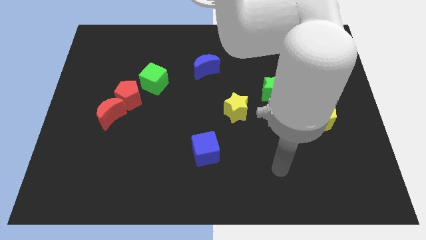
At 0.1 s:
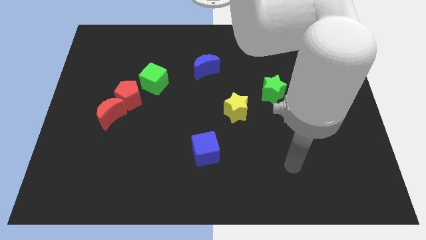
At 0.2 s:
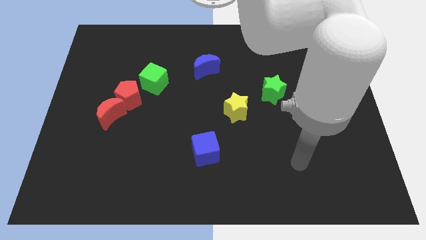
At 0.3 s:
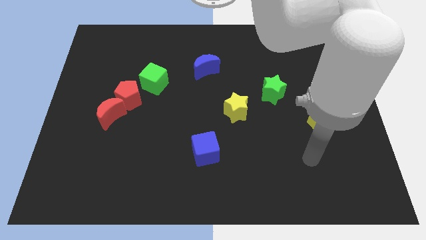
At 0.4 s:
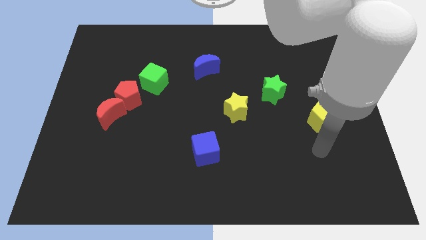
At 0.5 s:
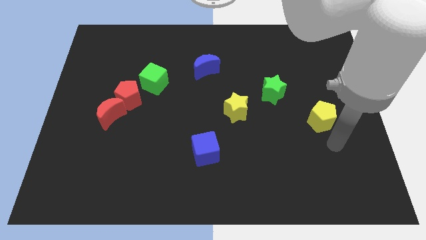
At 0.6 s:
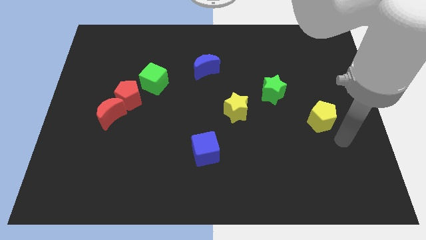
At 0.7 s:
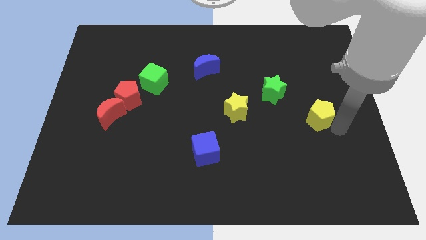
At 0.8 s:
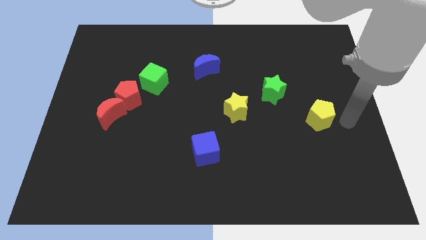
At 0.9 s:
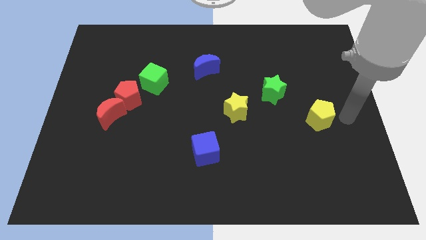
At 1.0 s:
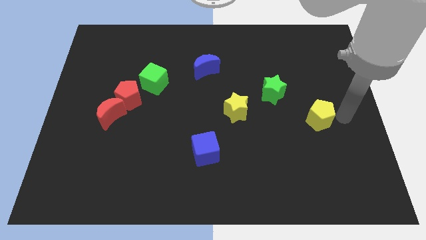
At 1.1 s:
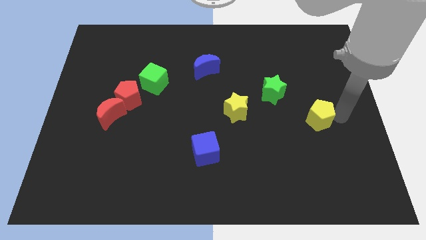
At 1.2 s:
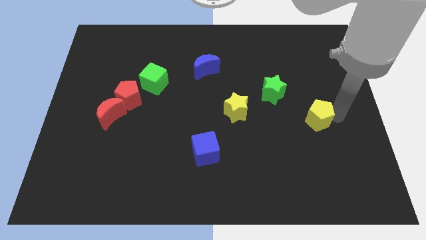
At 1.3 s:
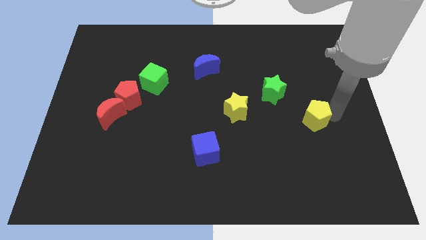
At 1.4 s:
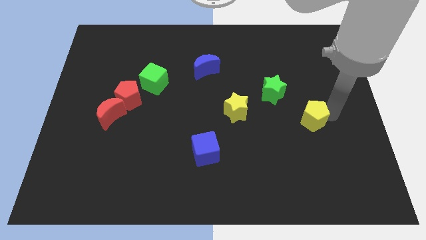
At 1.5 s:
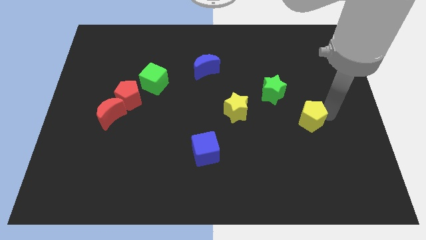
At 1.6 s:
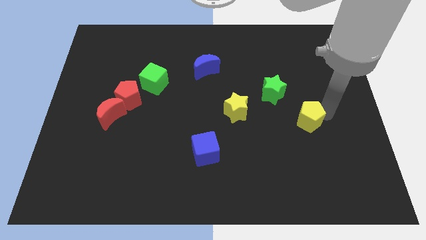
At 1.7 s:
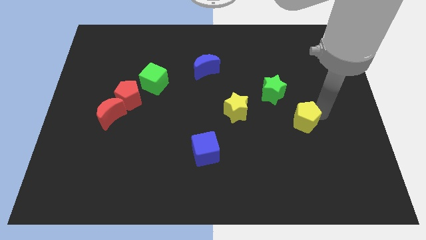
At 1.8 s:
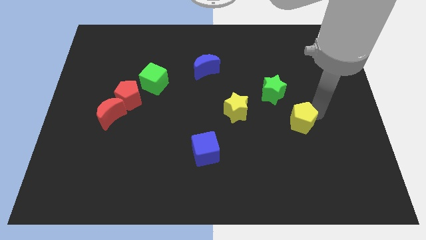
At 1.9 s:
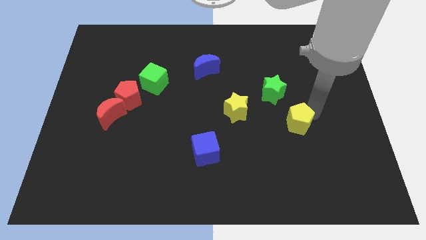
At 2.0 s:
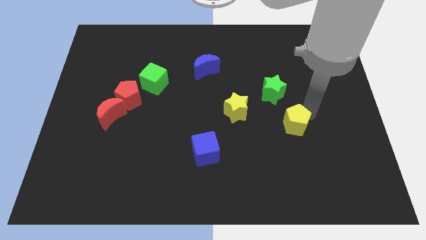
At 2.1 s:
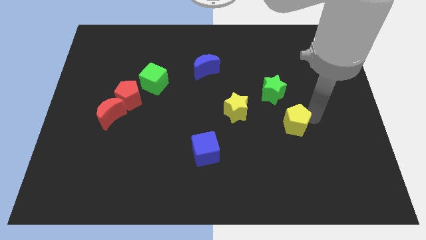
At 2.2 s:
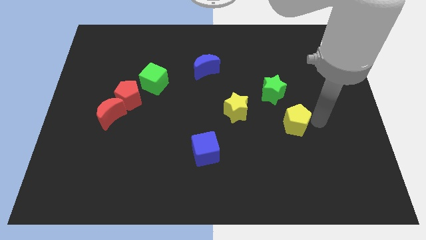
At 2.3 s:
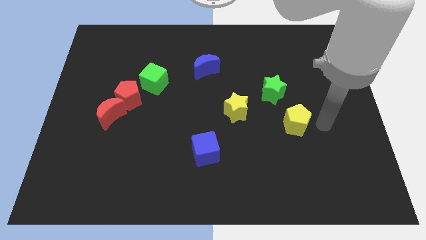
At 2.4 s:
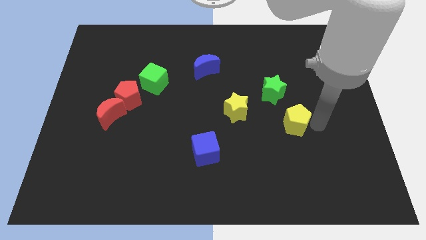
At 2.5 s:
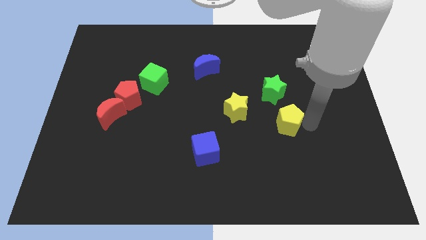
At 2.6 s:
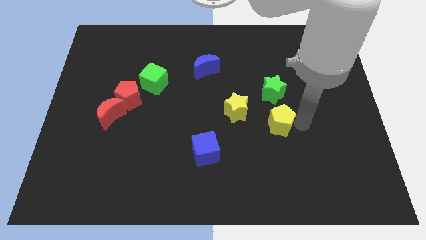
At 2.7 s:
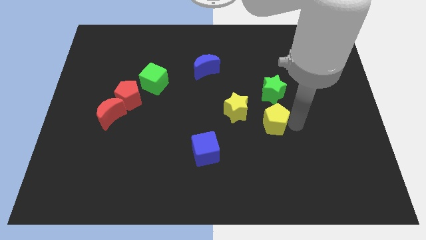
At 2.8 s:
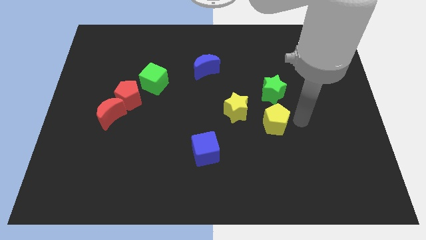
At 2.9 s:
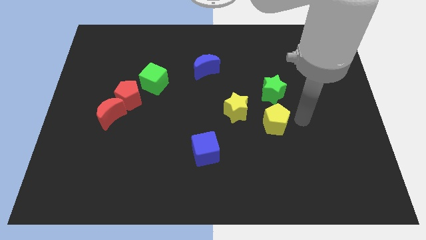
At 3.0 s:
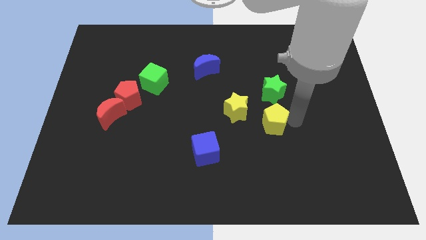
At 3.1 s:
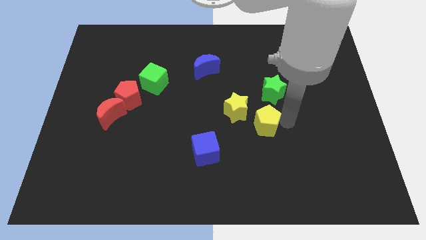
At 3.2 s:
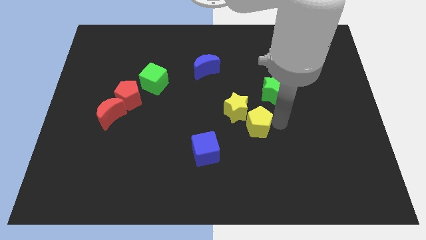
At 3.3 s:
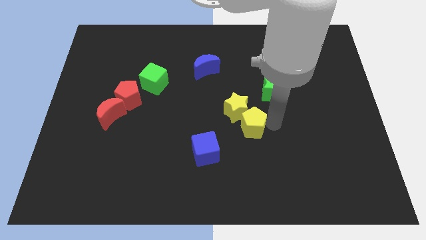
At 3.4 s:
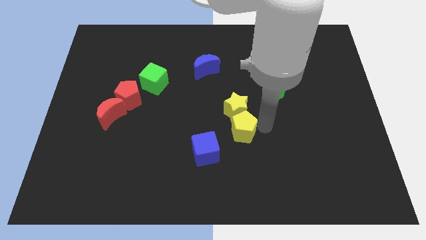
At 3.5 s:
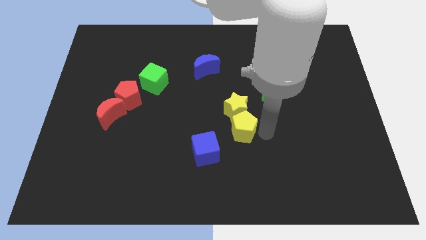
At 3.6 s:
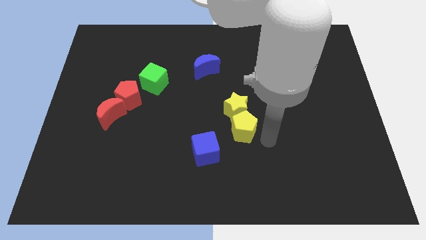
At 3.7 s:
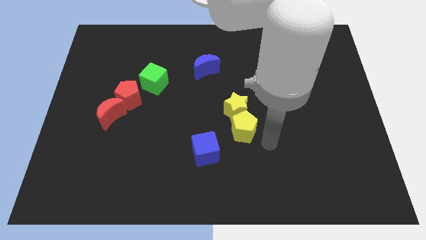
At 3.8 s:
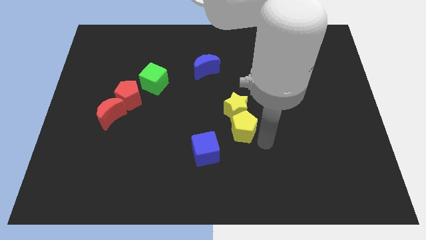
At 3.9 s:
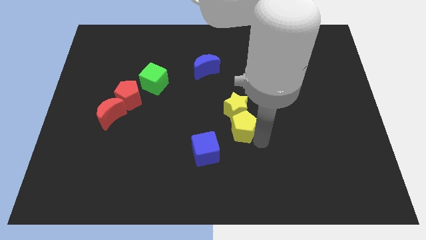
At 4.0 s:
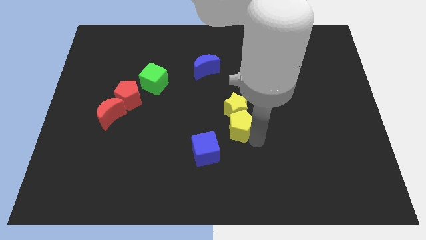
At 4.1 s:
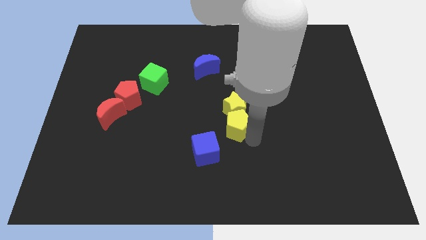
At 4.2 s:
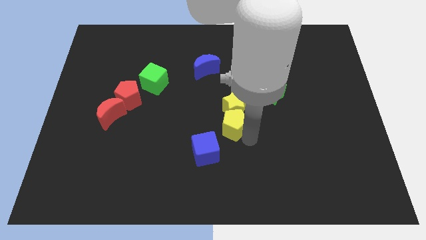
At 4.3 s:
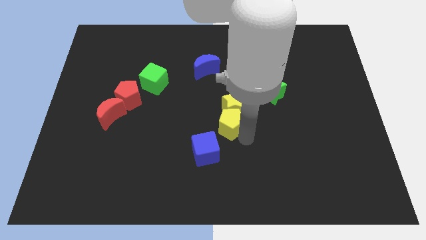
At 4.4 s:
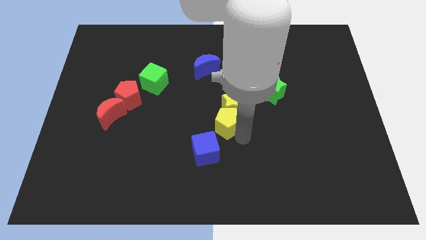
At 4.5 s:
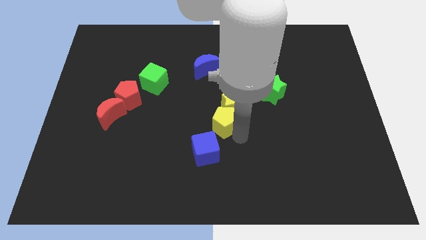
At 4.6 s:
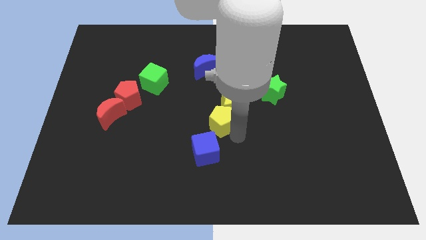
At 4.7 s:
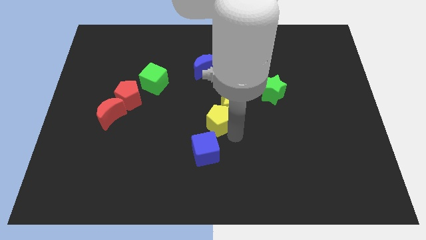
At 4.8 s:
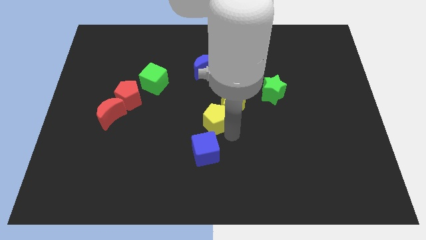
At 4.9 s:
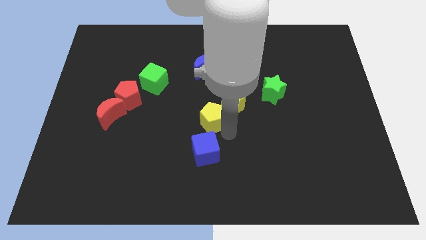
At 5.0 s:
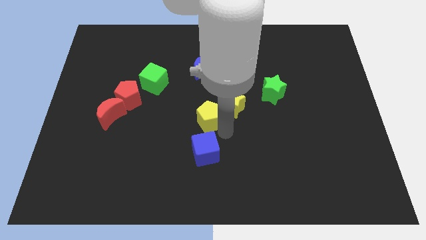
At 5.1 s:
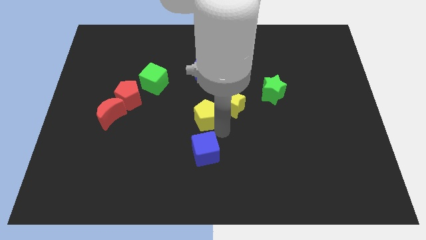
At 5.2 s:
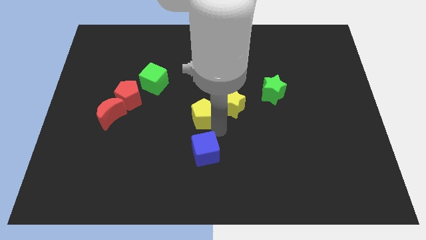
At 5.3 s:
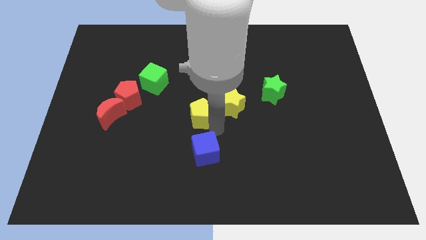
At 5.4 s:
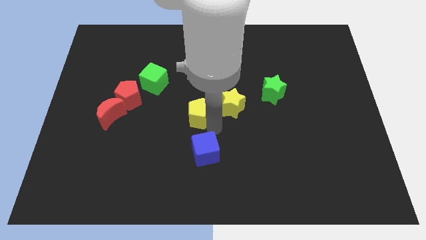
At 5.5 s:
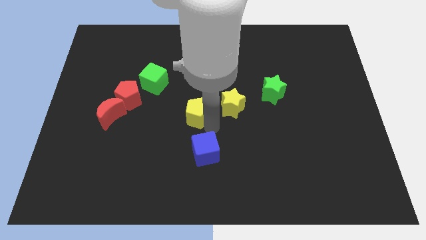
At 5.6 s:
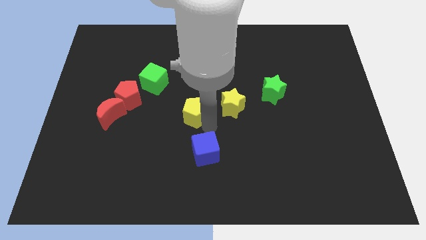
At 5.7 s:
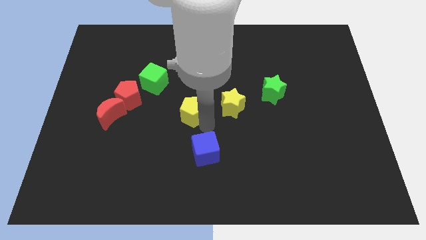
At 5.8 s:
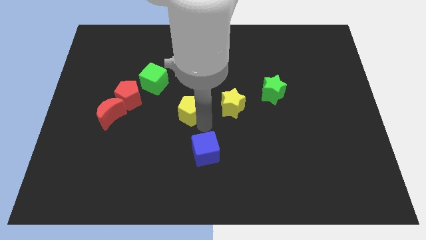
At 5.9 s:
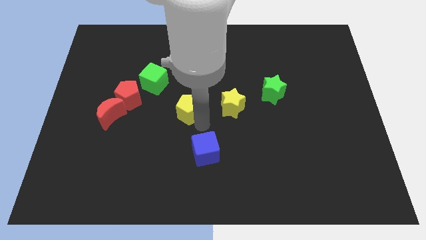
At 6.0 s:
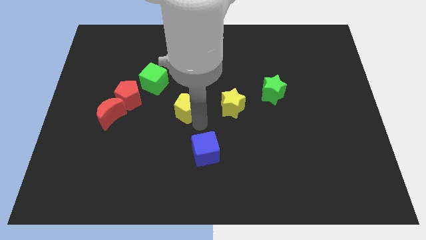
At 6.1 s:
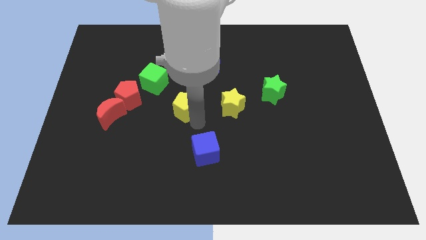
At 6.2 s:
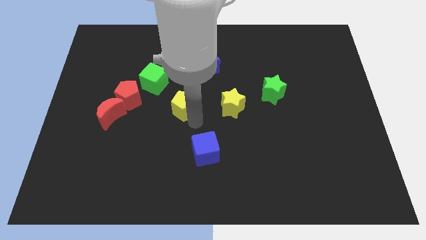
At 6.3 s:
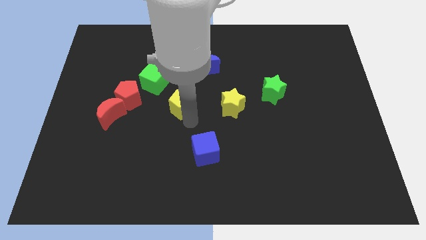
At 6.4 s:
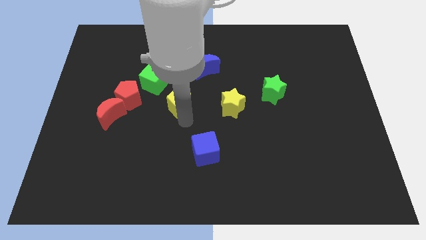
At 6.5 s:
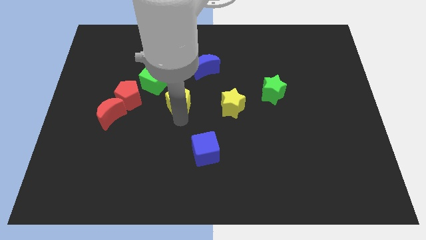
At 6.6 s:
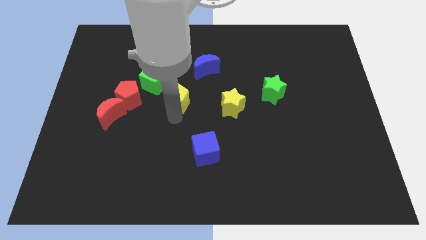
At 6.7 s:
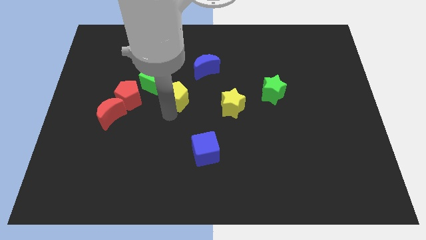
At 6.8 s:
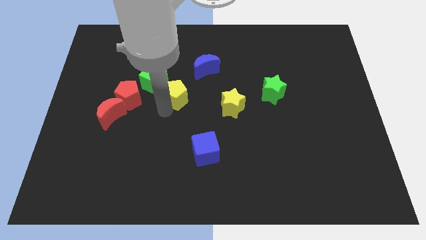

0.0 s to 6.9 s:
put the yellow pentagon to the right of the green cube

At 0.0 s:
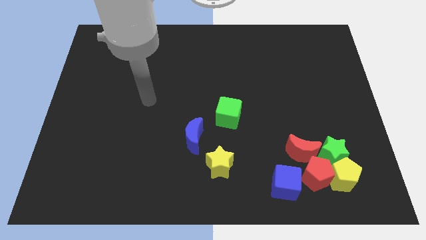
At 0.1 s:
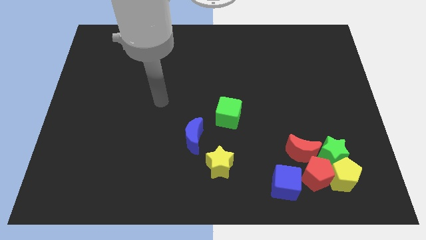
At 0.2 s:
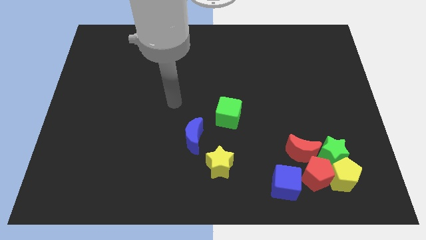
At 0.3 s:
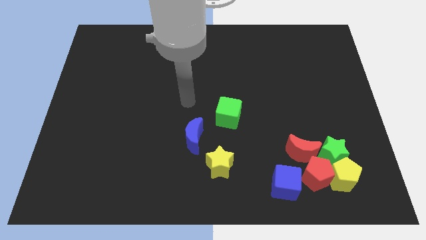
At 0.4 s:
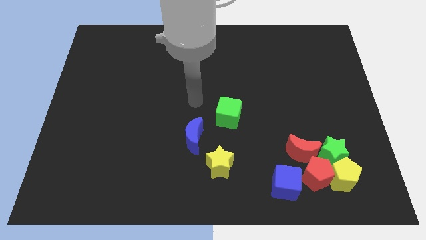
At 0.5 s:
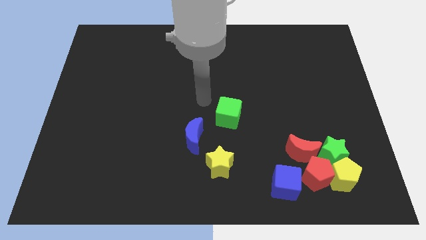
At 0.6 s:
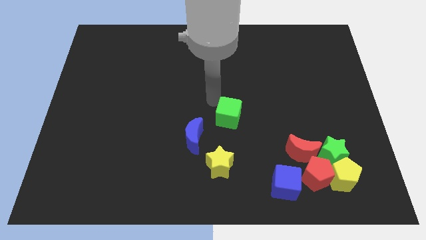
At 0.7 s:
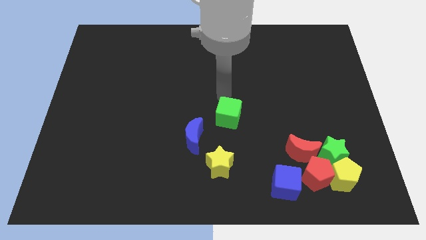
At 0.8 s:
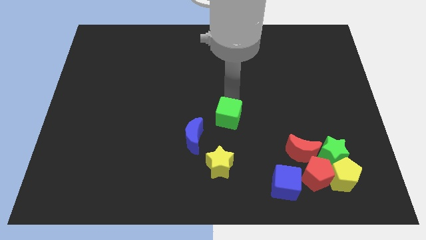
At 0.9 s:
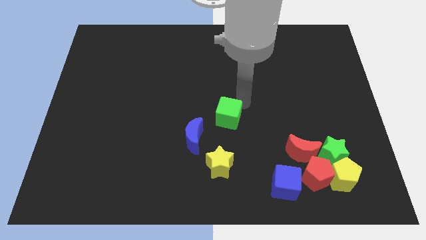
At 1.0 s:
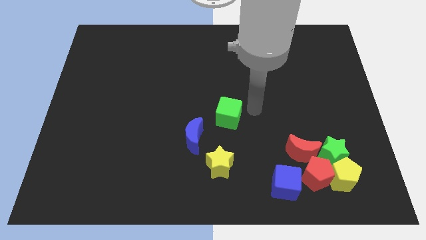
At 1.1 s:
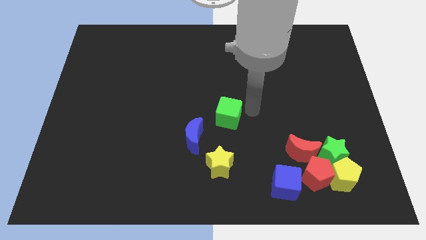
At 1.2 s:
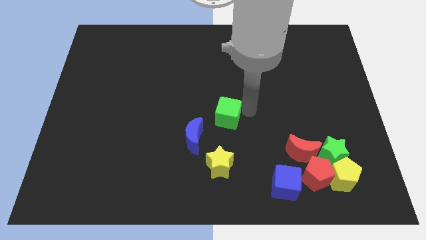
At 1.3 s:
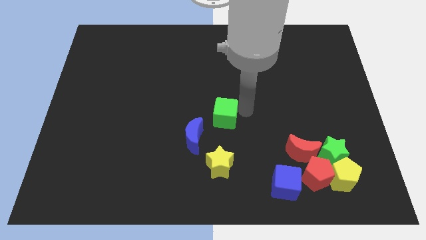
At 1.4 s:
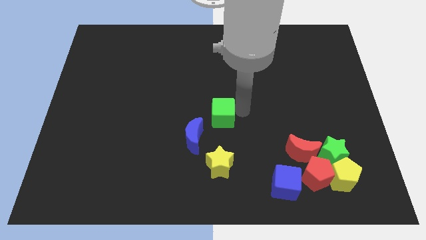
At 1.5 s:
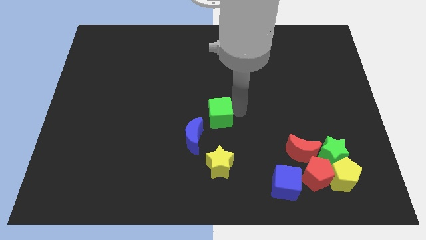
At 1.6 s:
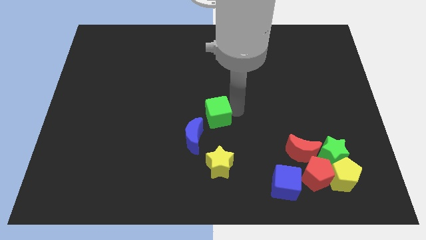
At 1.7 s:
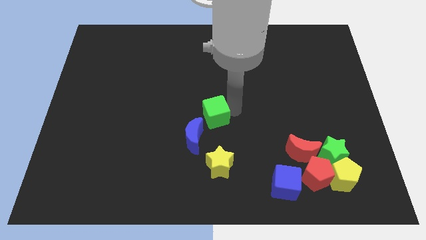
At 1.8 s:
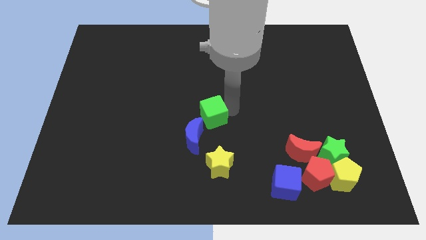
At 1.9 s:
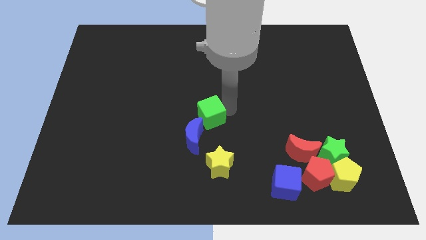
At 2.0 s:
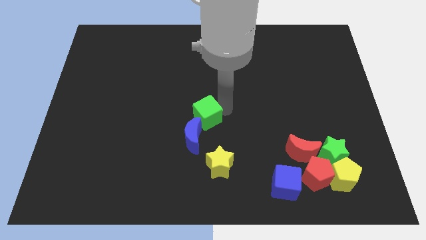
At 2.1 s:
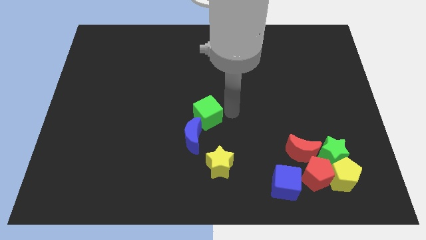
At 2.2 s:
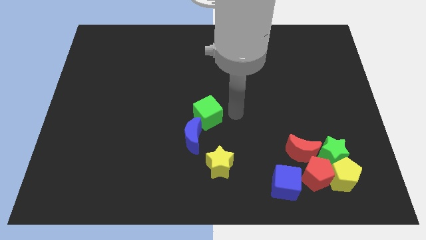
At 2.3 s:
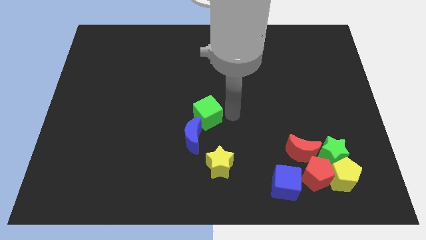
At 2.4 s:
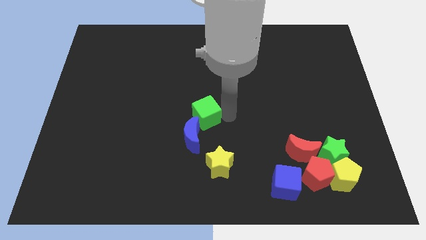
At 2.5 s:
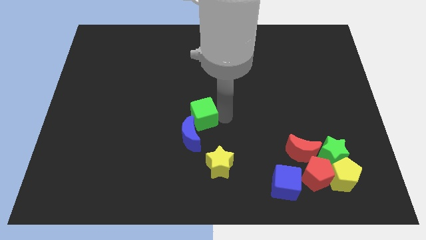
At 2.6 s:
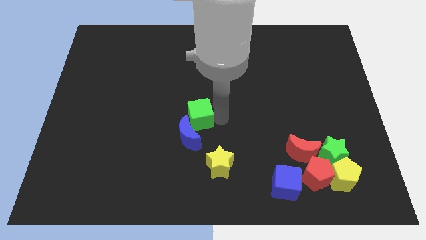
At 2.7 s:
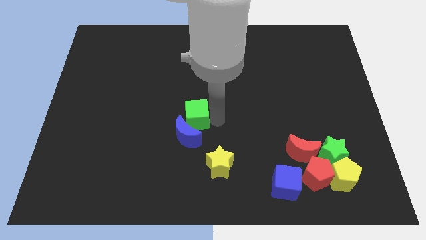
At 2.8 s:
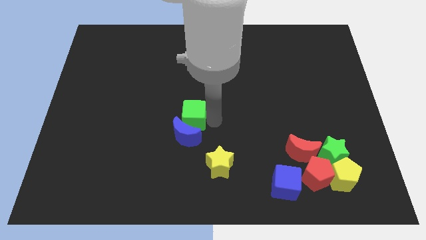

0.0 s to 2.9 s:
move the green cube to the top left side of the blue moon
